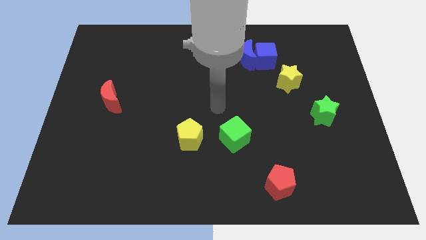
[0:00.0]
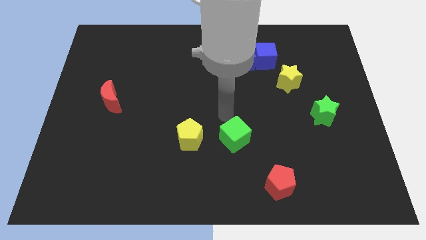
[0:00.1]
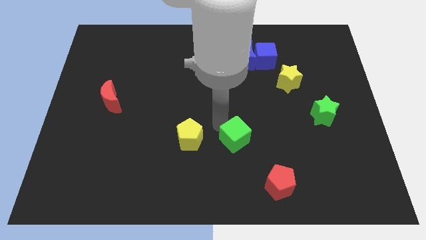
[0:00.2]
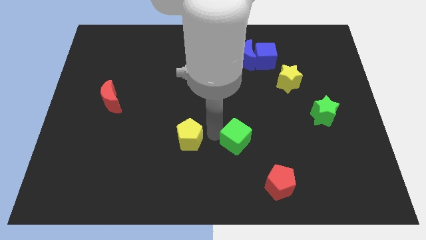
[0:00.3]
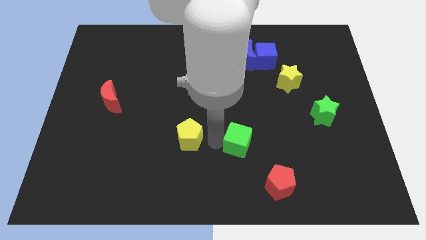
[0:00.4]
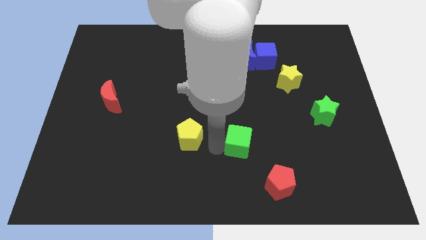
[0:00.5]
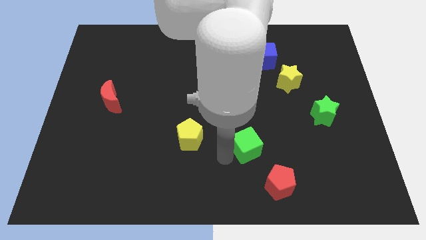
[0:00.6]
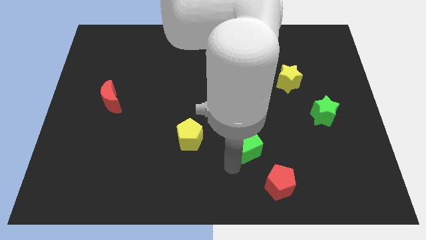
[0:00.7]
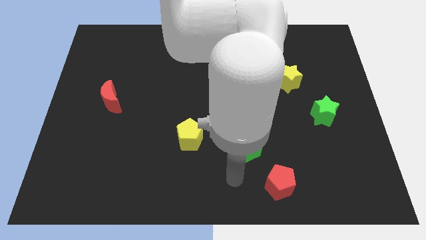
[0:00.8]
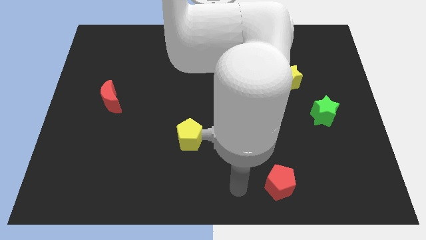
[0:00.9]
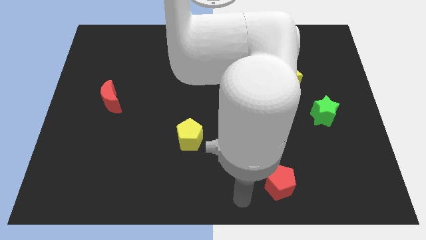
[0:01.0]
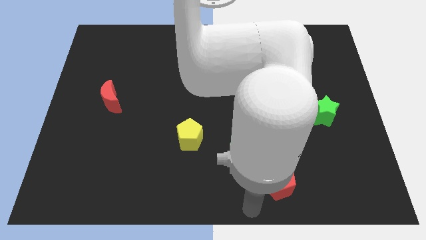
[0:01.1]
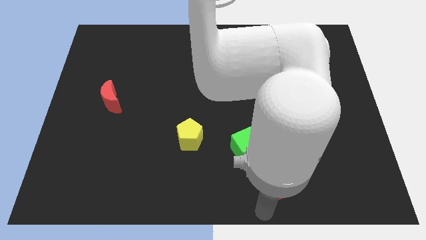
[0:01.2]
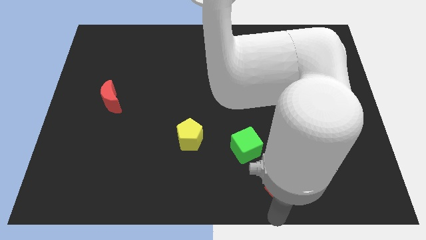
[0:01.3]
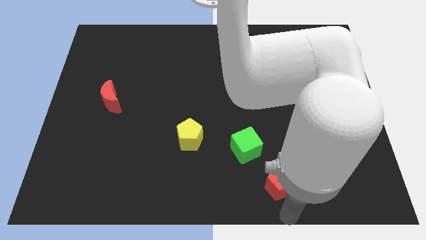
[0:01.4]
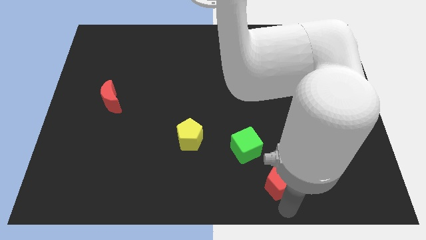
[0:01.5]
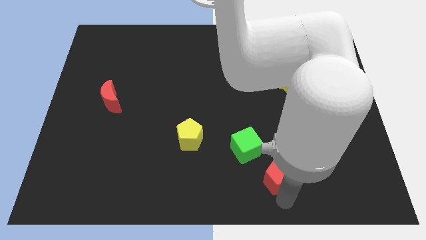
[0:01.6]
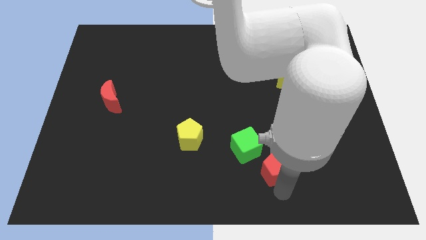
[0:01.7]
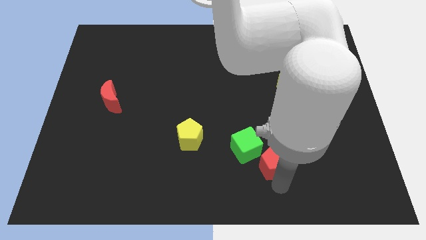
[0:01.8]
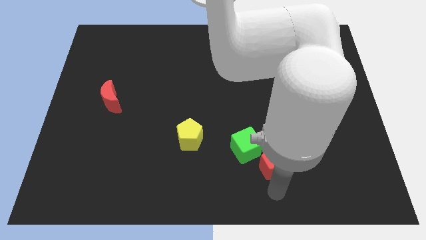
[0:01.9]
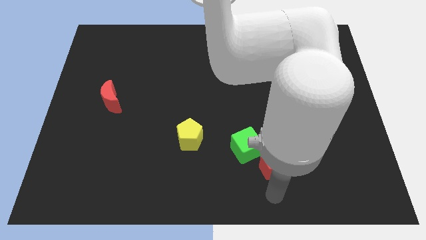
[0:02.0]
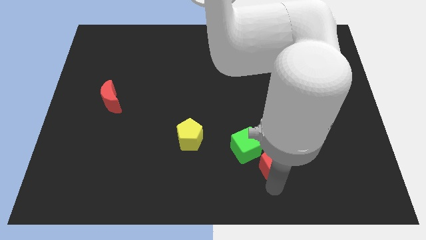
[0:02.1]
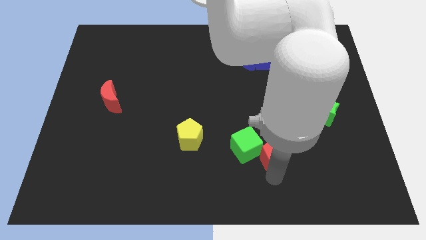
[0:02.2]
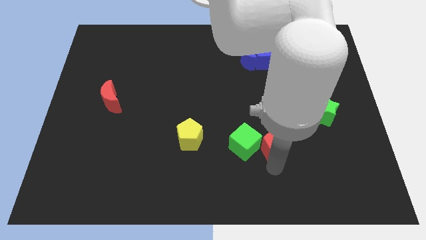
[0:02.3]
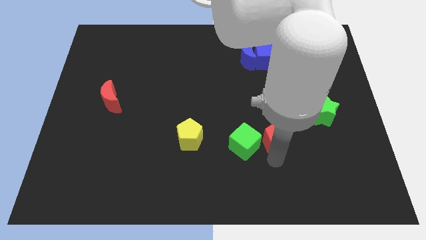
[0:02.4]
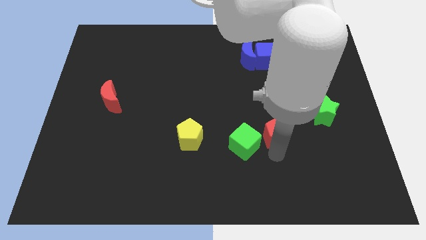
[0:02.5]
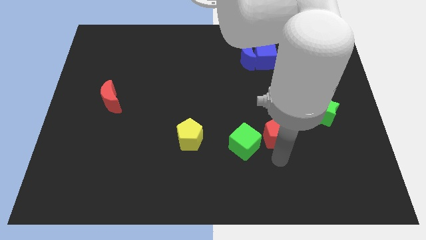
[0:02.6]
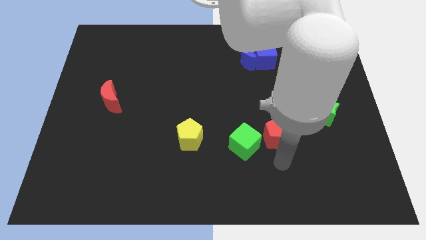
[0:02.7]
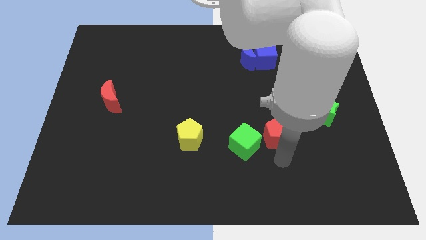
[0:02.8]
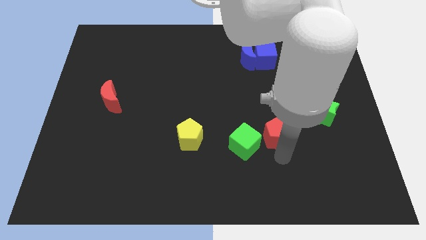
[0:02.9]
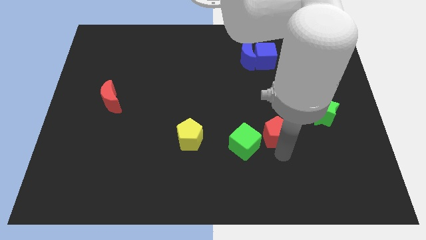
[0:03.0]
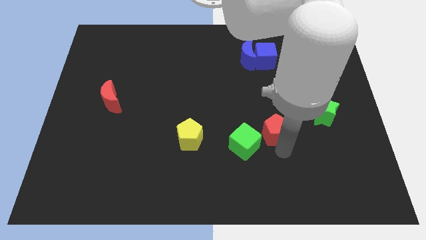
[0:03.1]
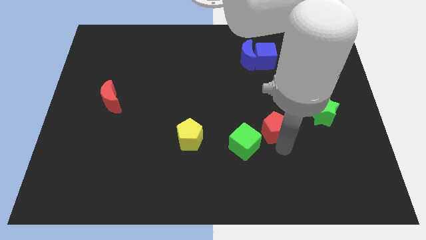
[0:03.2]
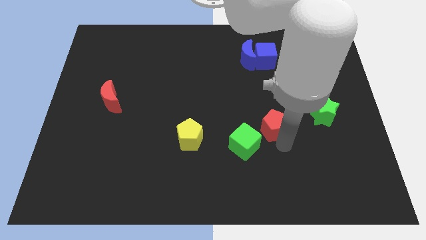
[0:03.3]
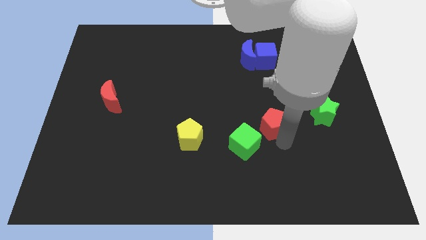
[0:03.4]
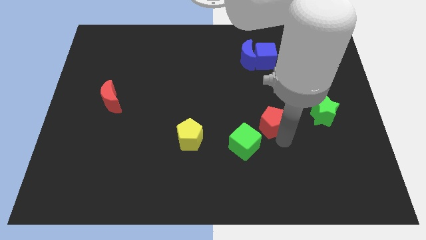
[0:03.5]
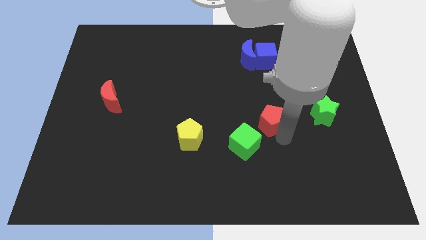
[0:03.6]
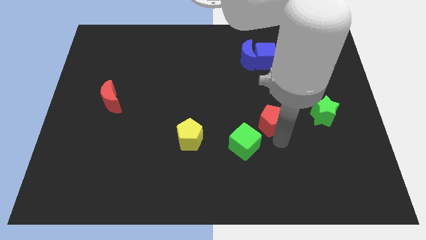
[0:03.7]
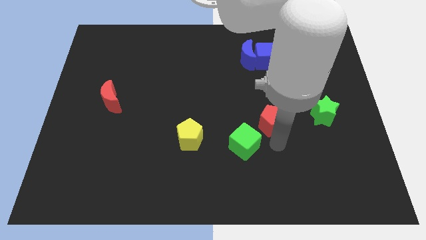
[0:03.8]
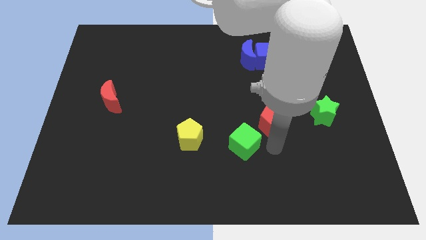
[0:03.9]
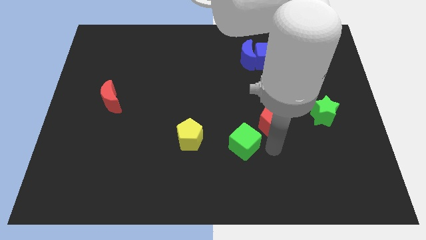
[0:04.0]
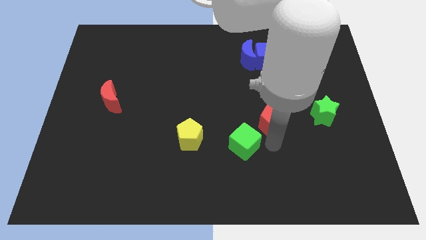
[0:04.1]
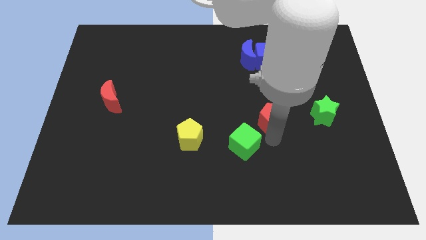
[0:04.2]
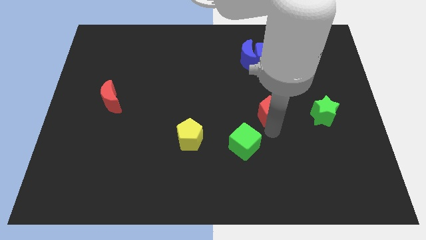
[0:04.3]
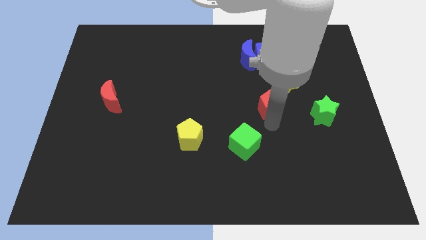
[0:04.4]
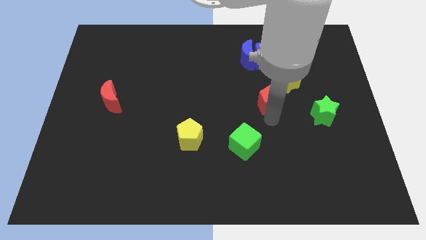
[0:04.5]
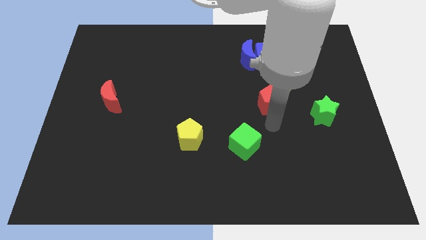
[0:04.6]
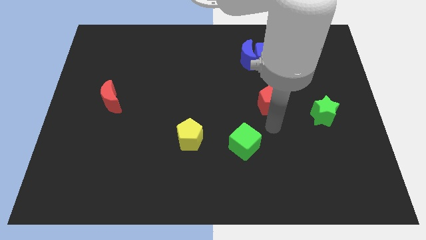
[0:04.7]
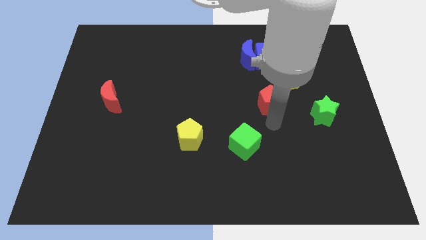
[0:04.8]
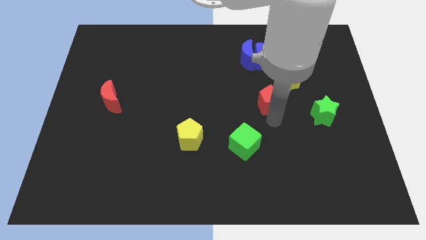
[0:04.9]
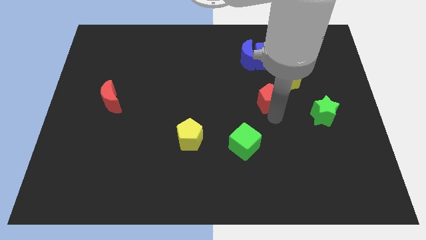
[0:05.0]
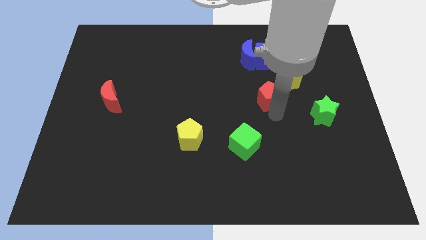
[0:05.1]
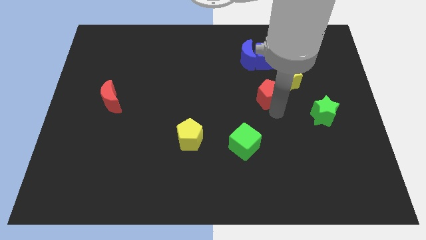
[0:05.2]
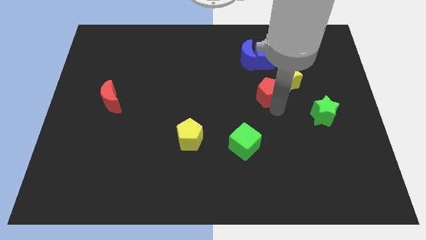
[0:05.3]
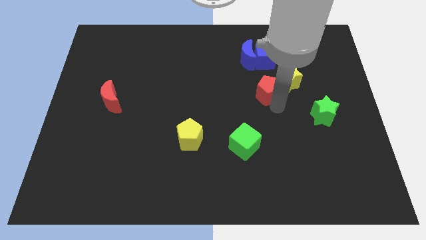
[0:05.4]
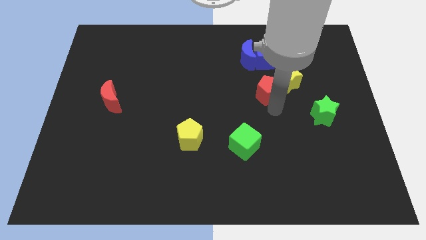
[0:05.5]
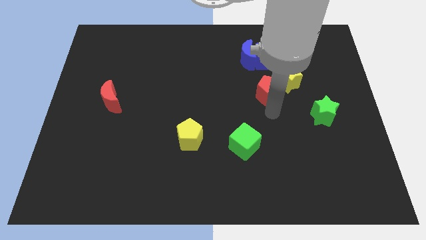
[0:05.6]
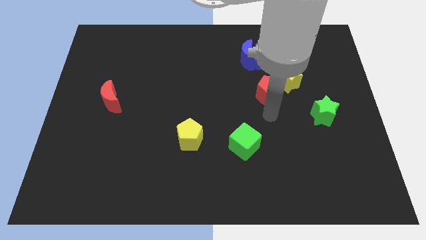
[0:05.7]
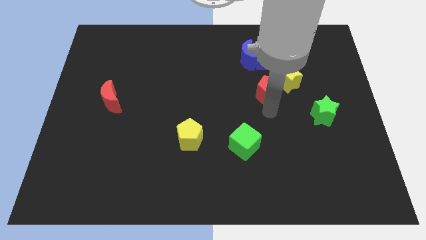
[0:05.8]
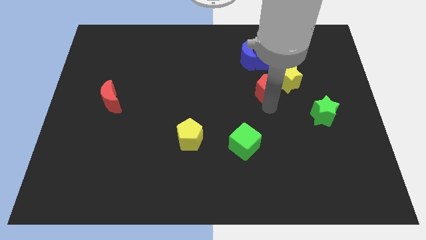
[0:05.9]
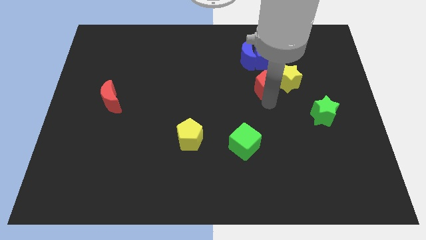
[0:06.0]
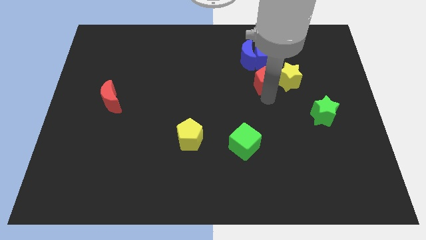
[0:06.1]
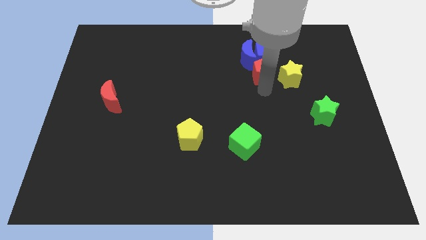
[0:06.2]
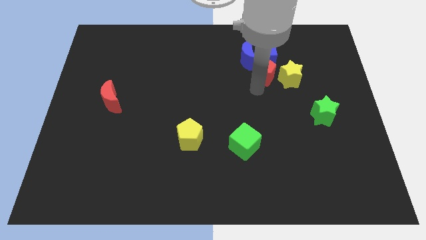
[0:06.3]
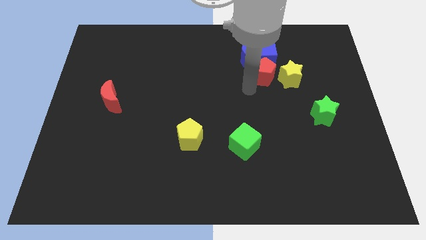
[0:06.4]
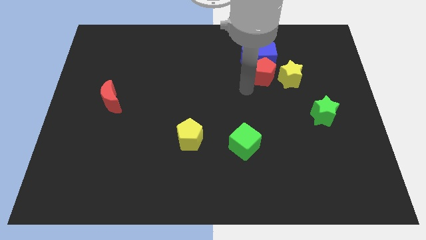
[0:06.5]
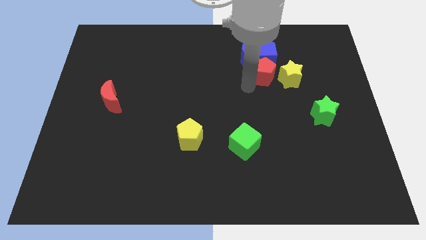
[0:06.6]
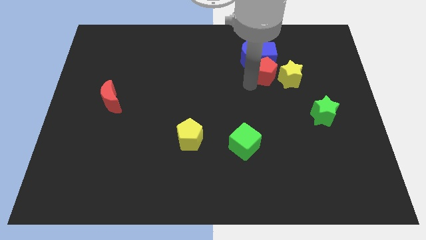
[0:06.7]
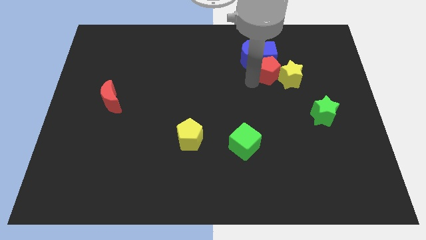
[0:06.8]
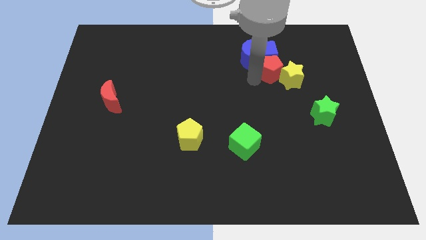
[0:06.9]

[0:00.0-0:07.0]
move the red pentagon to the right side of the blue moon
